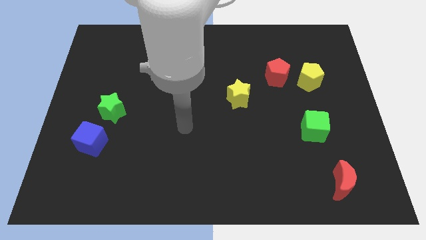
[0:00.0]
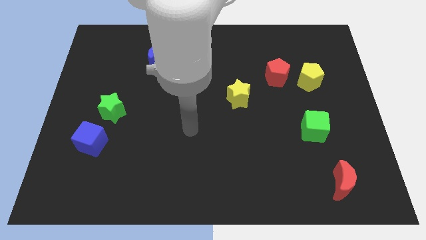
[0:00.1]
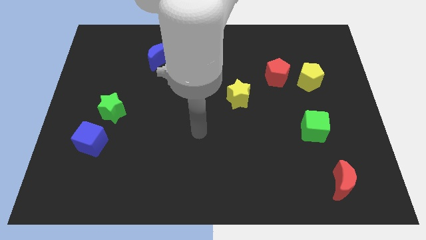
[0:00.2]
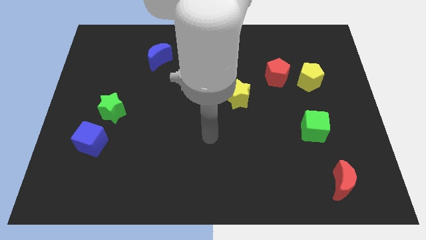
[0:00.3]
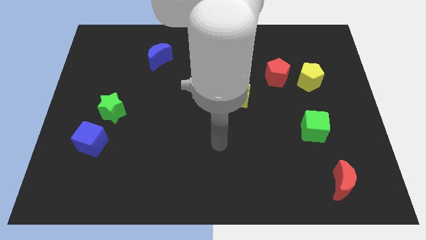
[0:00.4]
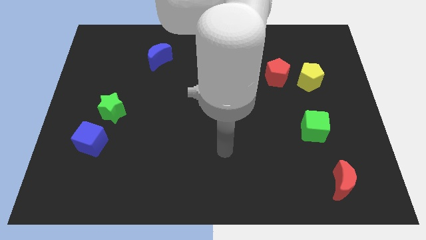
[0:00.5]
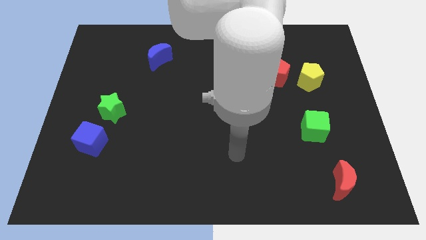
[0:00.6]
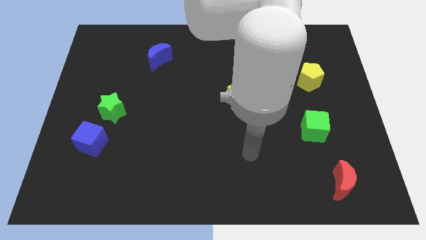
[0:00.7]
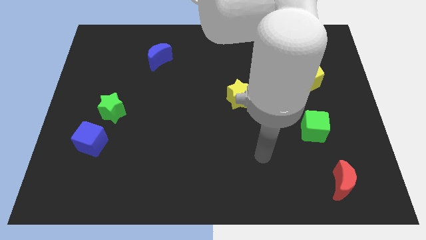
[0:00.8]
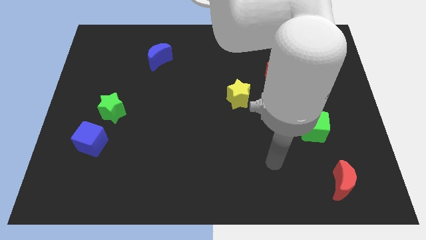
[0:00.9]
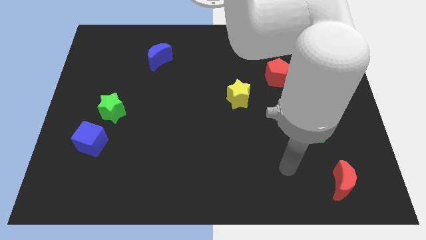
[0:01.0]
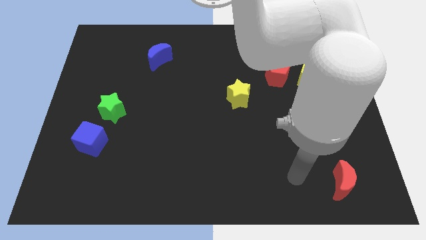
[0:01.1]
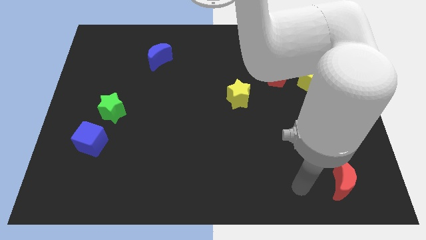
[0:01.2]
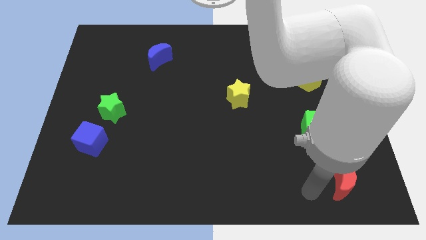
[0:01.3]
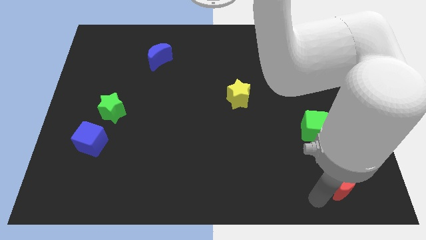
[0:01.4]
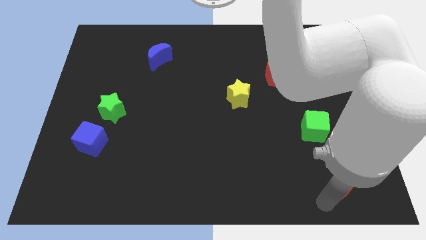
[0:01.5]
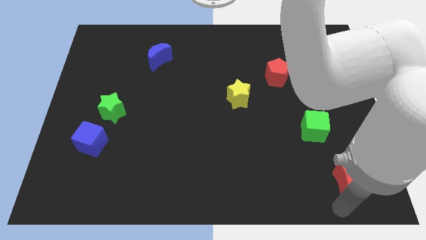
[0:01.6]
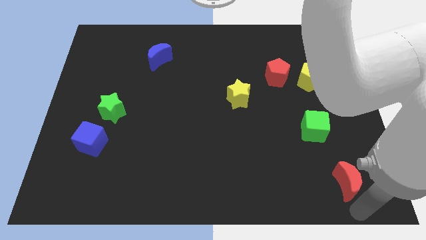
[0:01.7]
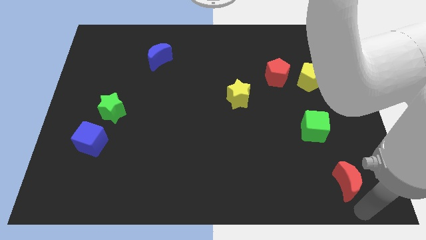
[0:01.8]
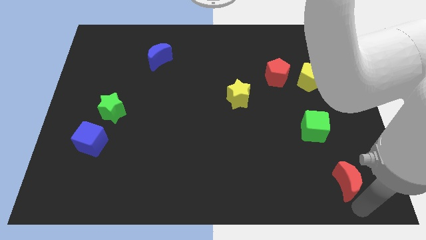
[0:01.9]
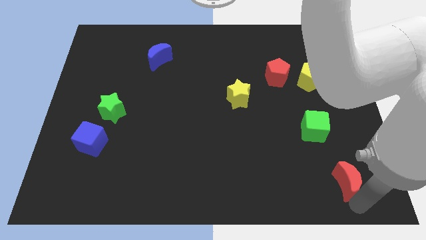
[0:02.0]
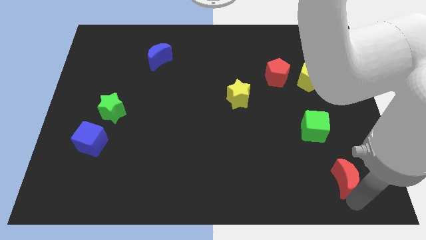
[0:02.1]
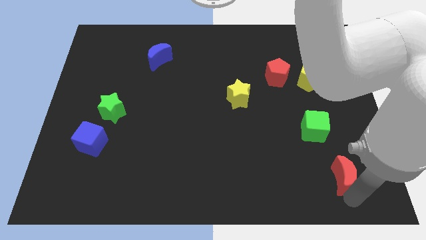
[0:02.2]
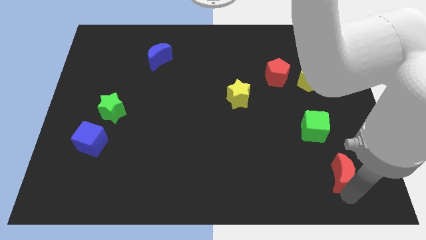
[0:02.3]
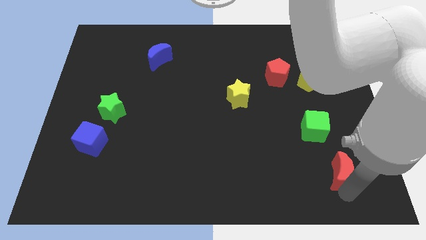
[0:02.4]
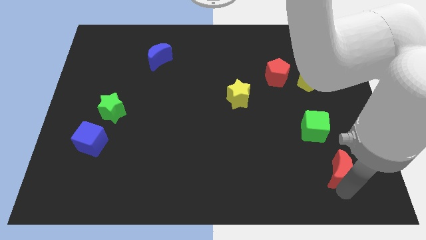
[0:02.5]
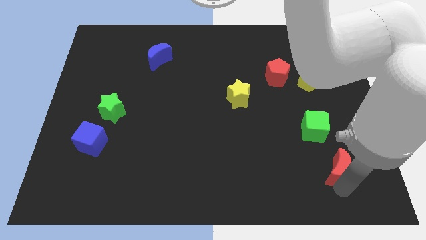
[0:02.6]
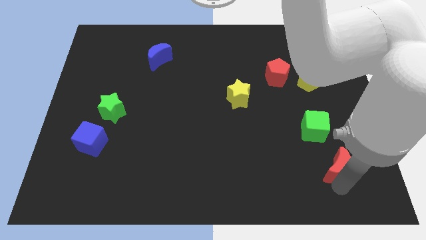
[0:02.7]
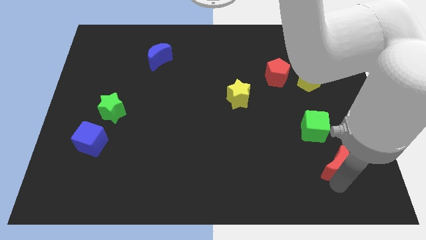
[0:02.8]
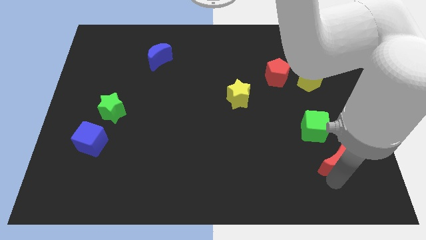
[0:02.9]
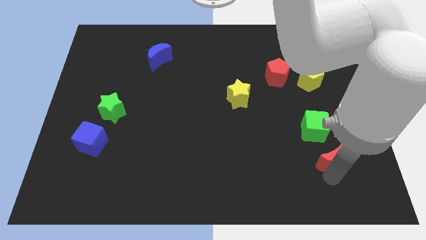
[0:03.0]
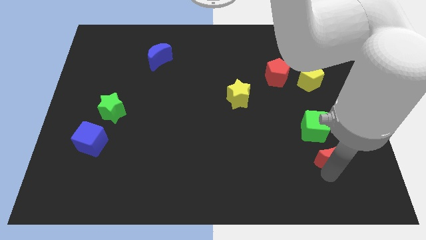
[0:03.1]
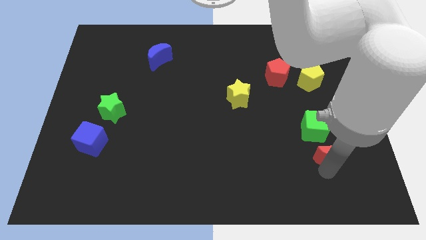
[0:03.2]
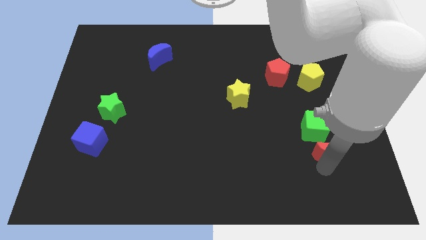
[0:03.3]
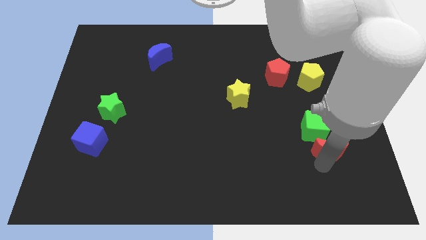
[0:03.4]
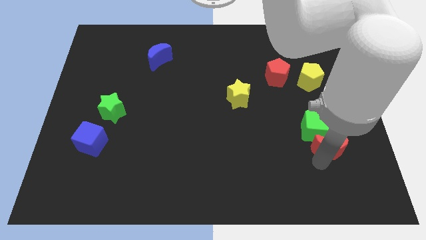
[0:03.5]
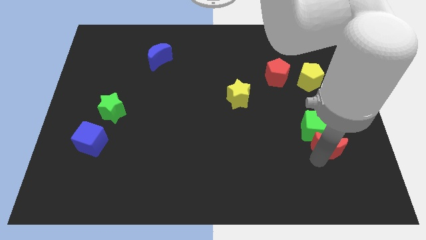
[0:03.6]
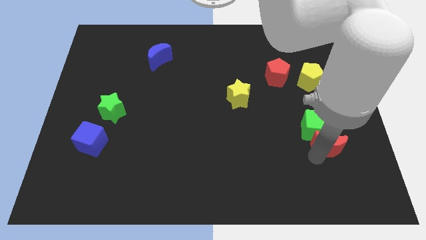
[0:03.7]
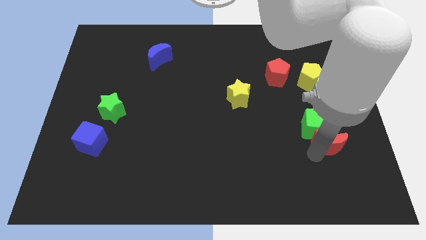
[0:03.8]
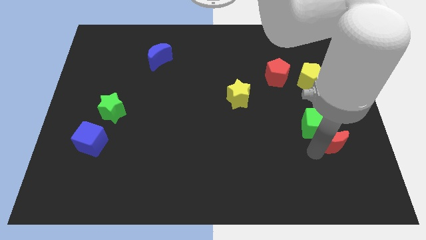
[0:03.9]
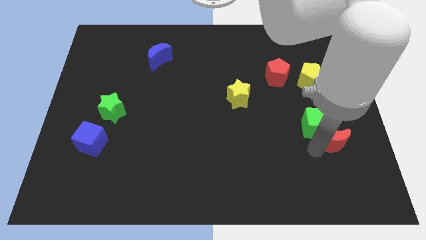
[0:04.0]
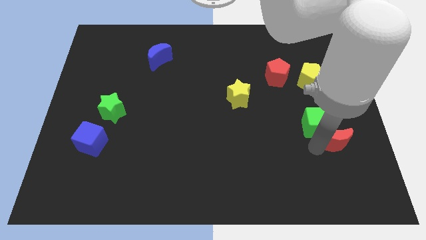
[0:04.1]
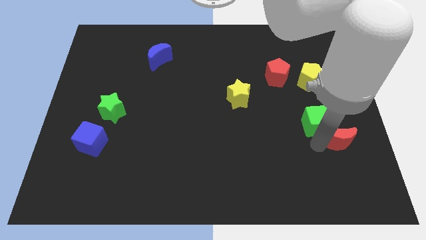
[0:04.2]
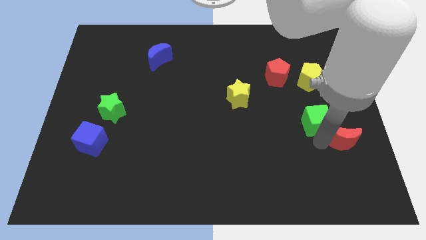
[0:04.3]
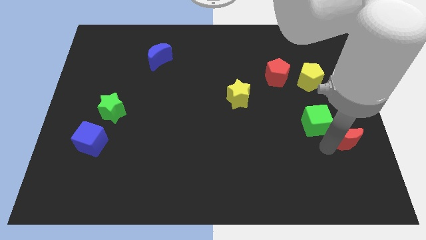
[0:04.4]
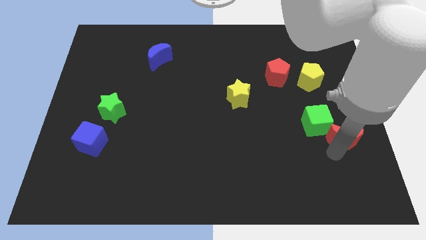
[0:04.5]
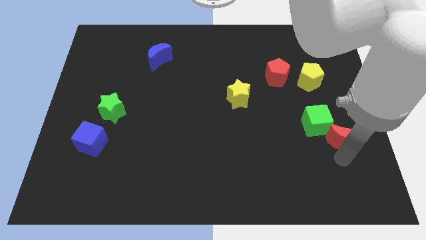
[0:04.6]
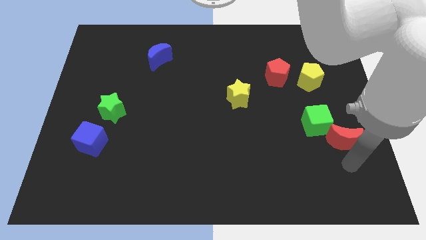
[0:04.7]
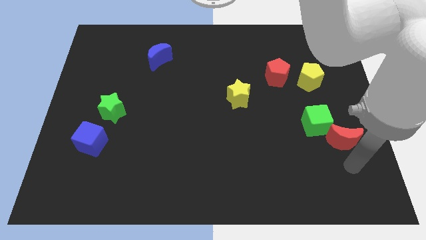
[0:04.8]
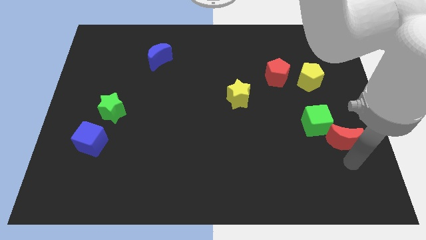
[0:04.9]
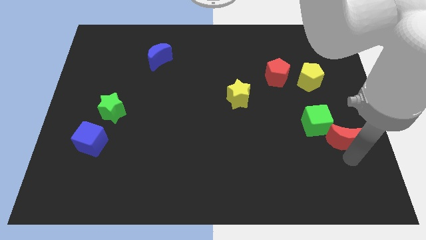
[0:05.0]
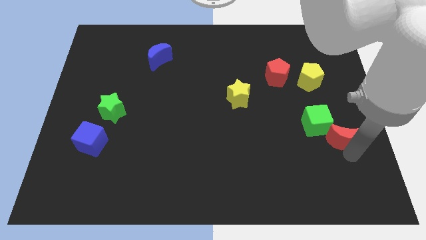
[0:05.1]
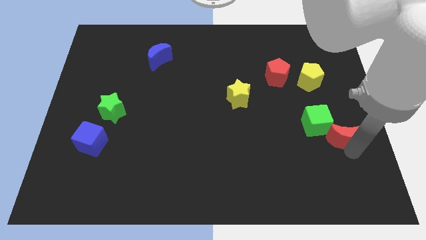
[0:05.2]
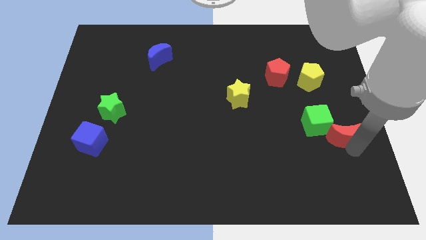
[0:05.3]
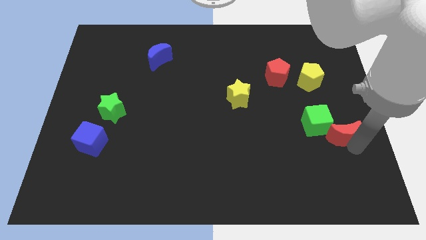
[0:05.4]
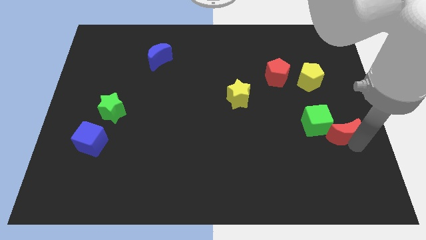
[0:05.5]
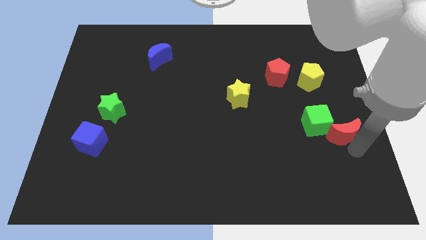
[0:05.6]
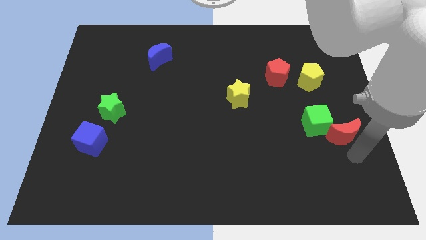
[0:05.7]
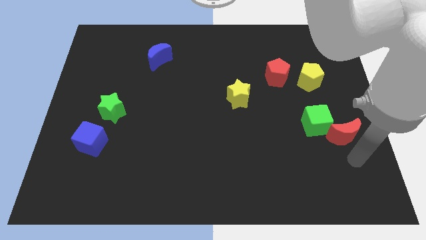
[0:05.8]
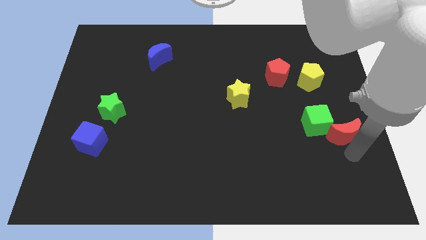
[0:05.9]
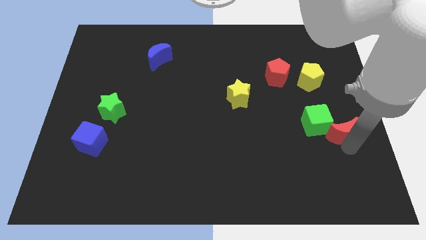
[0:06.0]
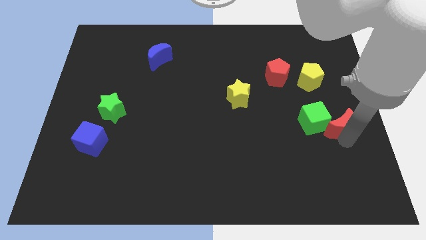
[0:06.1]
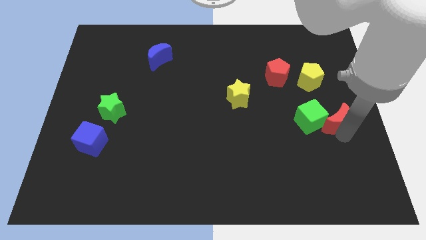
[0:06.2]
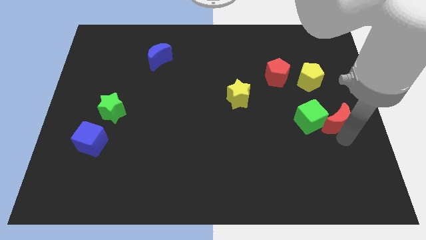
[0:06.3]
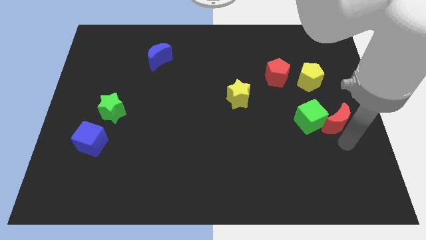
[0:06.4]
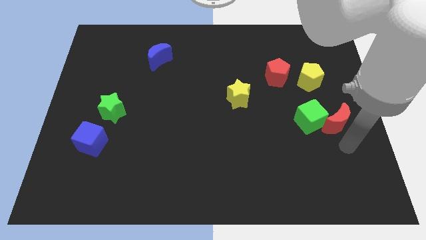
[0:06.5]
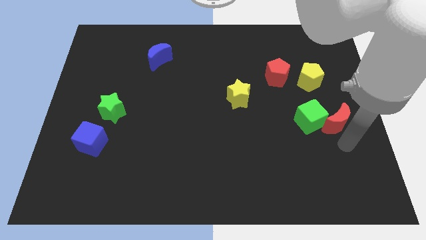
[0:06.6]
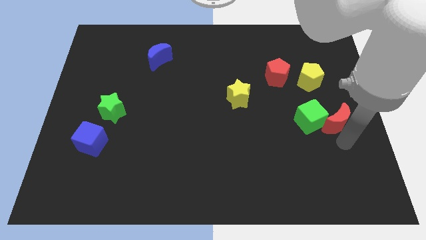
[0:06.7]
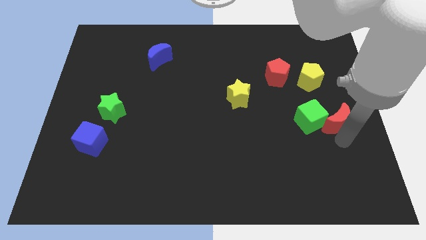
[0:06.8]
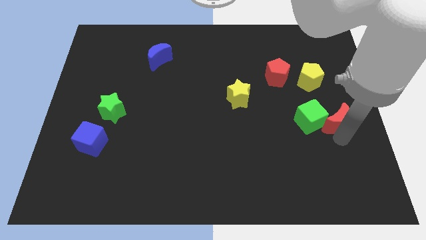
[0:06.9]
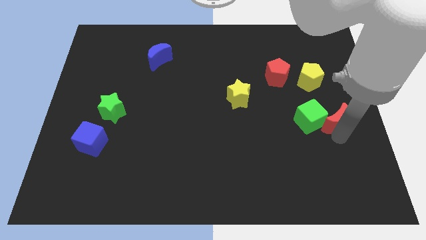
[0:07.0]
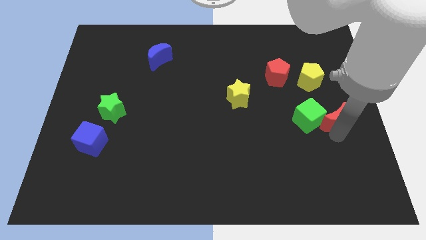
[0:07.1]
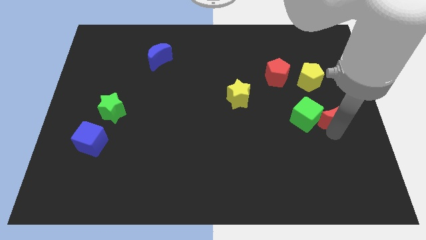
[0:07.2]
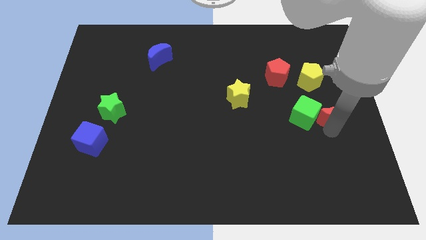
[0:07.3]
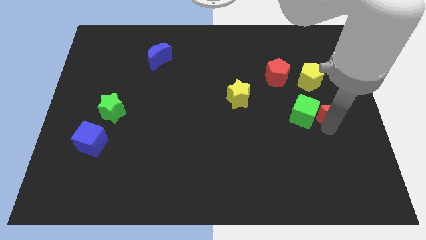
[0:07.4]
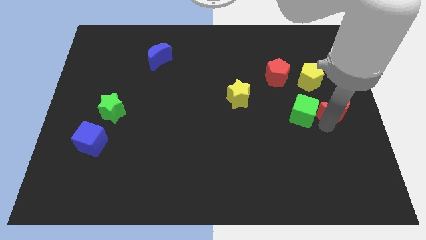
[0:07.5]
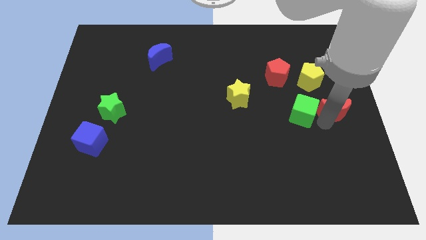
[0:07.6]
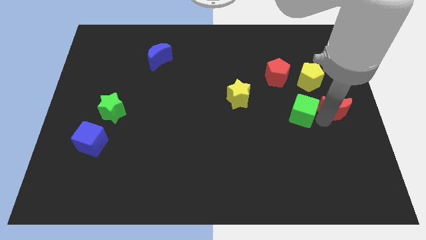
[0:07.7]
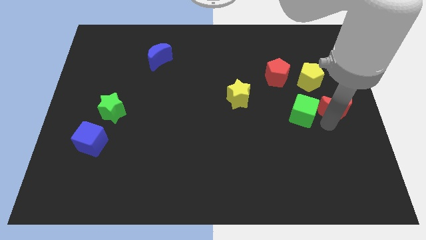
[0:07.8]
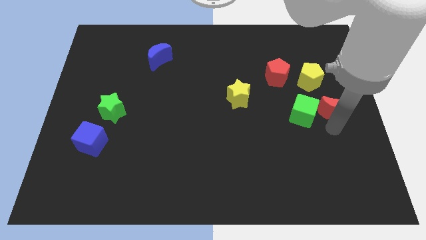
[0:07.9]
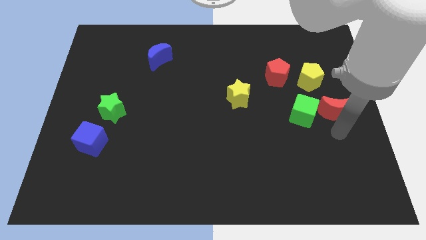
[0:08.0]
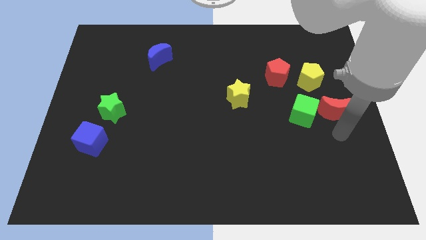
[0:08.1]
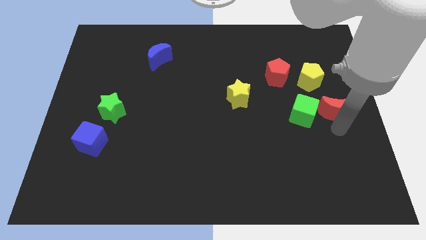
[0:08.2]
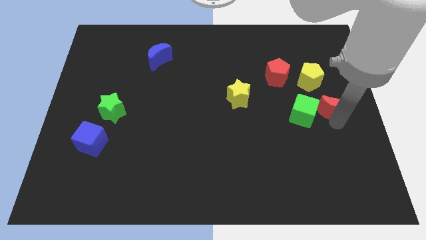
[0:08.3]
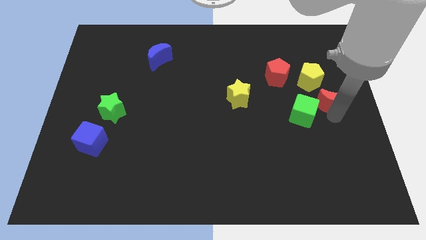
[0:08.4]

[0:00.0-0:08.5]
slide the red moon up
